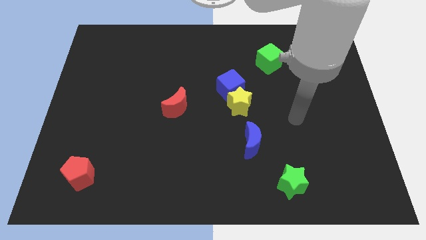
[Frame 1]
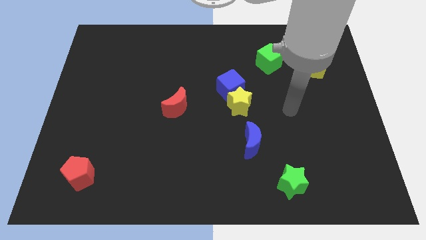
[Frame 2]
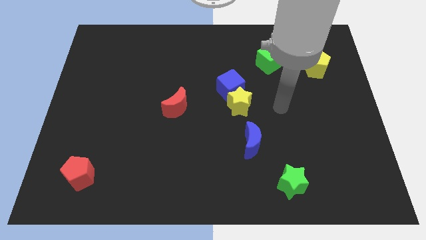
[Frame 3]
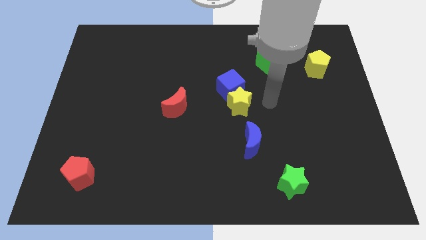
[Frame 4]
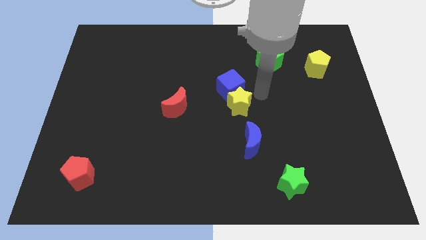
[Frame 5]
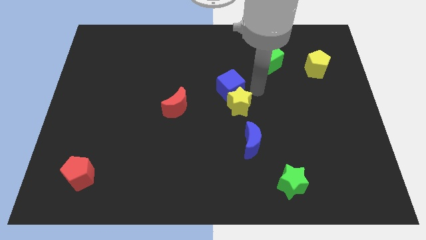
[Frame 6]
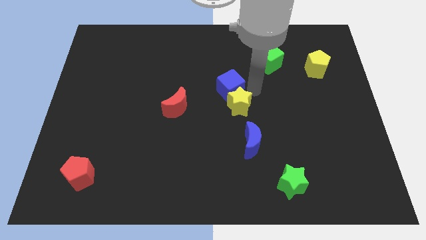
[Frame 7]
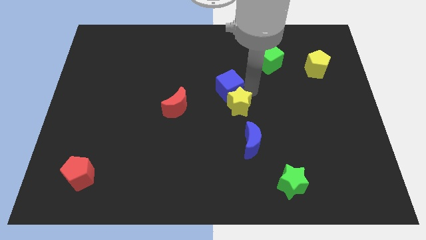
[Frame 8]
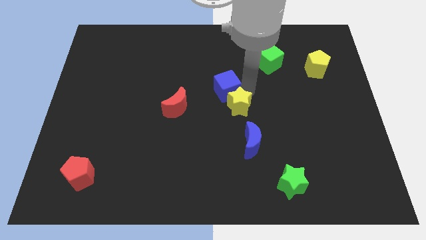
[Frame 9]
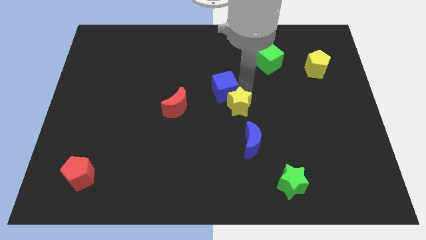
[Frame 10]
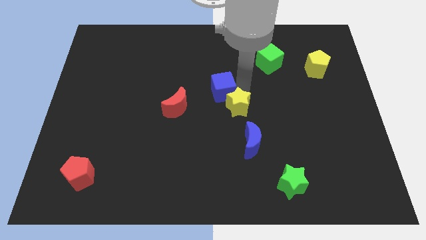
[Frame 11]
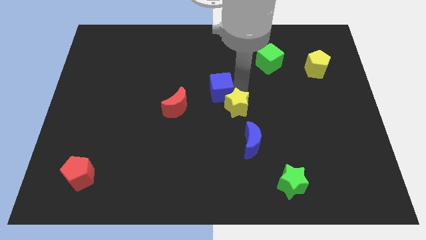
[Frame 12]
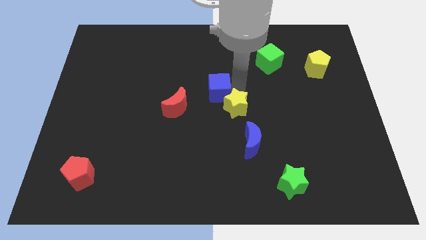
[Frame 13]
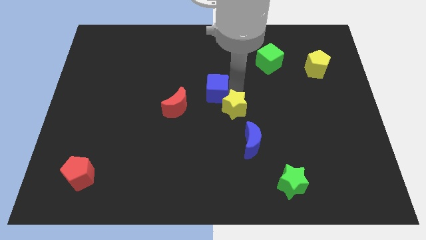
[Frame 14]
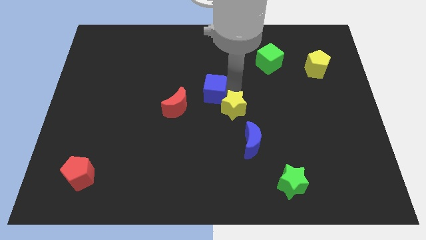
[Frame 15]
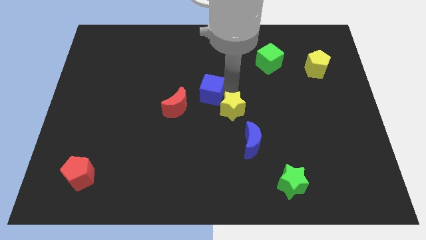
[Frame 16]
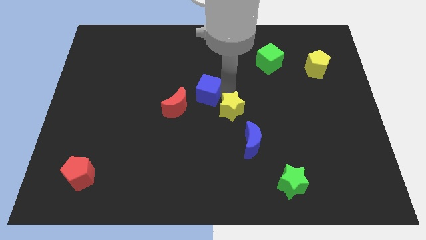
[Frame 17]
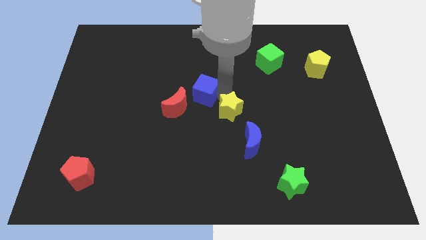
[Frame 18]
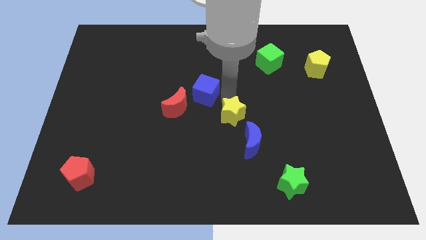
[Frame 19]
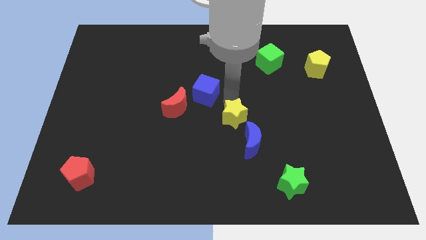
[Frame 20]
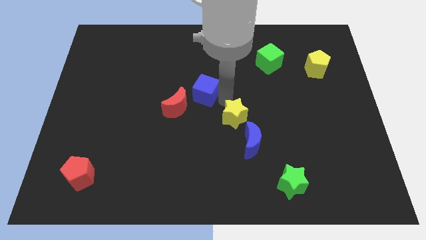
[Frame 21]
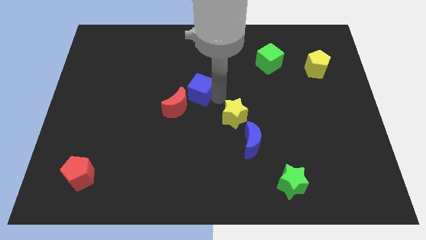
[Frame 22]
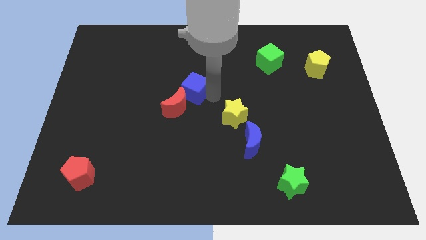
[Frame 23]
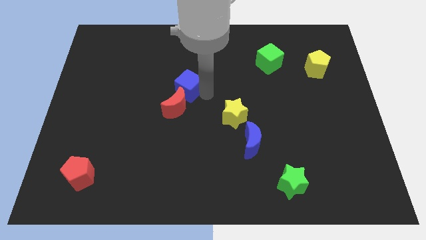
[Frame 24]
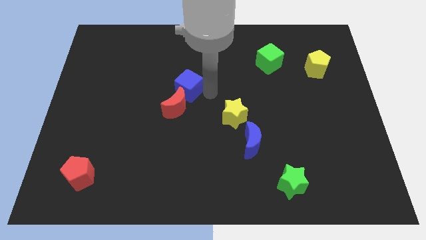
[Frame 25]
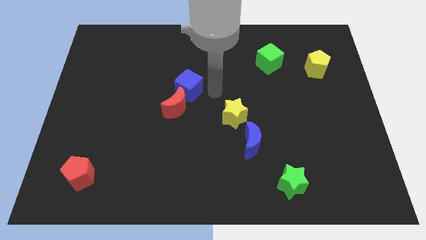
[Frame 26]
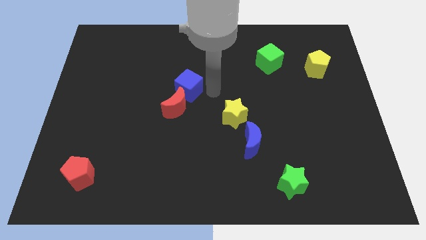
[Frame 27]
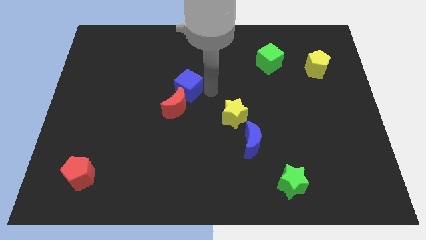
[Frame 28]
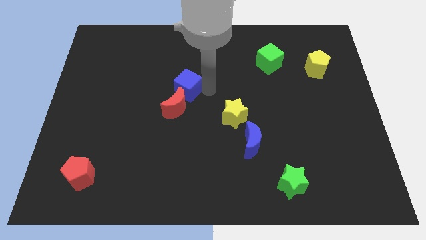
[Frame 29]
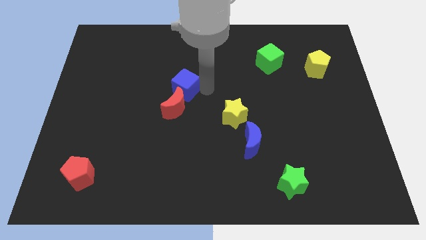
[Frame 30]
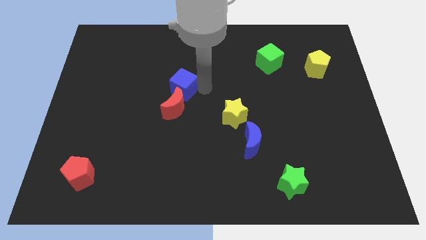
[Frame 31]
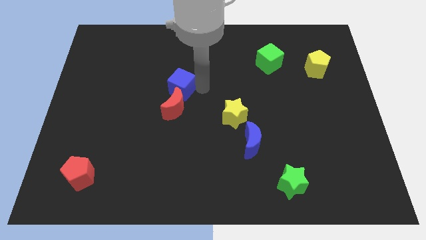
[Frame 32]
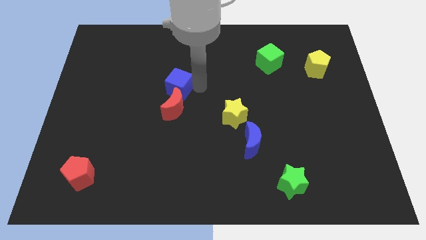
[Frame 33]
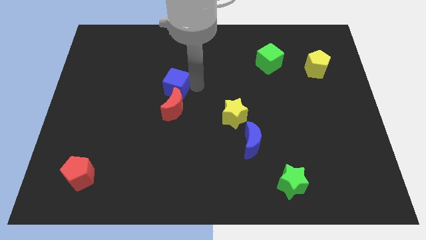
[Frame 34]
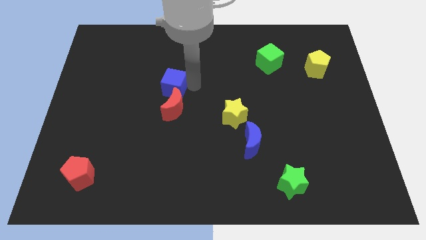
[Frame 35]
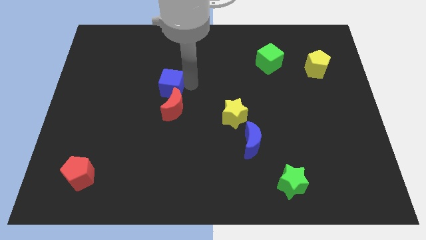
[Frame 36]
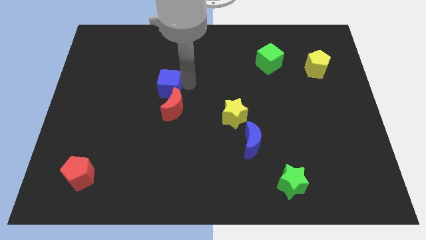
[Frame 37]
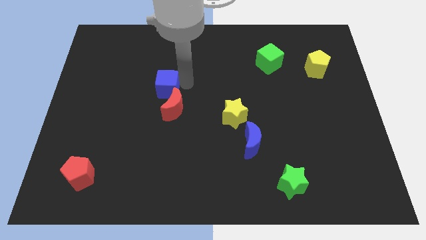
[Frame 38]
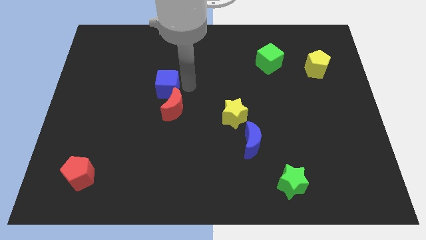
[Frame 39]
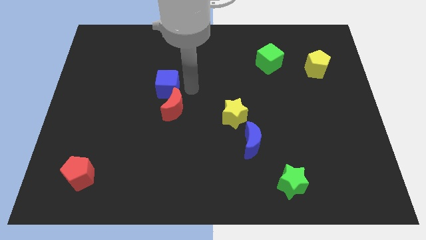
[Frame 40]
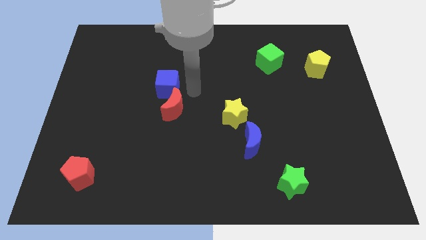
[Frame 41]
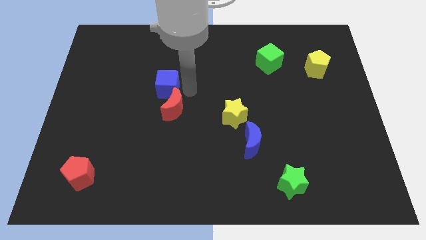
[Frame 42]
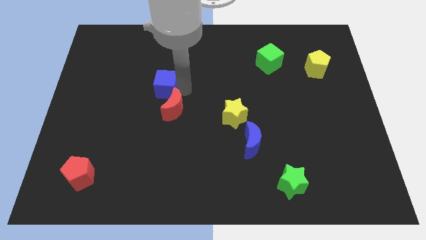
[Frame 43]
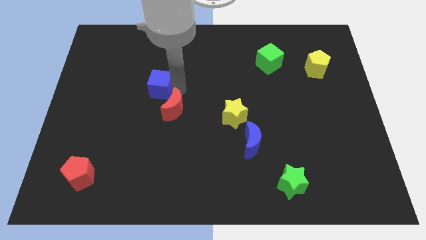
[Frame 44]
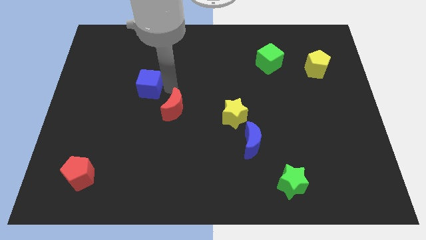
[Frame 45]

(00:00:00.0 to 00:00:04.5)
slide the blue cube left

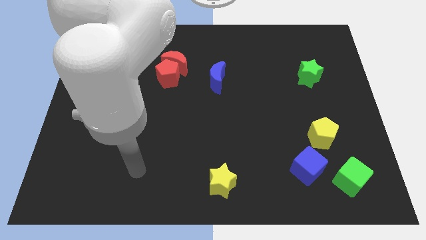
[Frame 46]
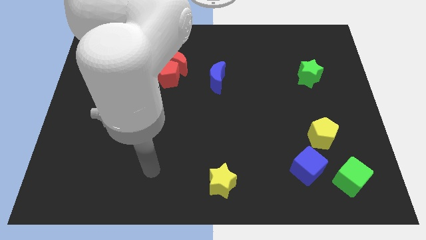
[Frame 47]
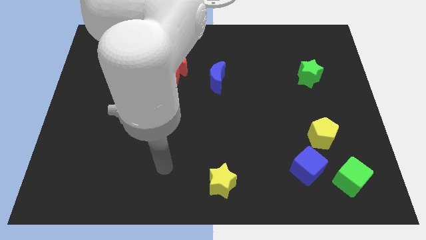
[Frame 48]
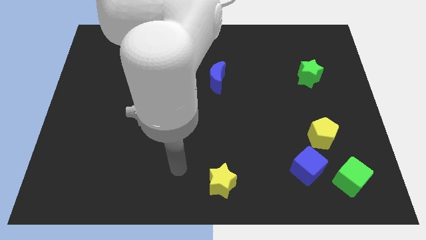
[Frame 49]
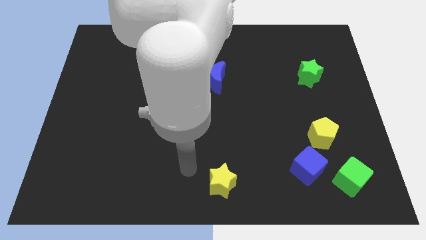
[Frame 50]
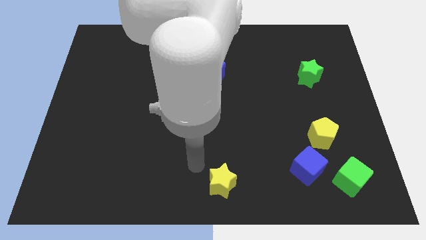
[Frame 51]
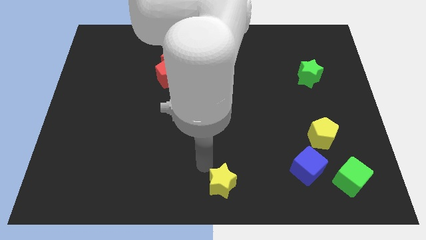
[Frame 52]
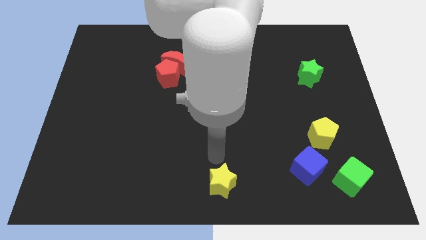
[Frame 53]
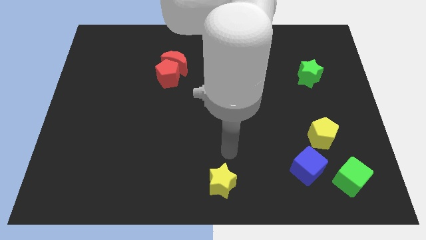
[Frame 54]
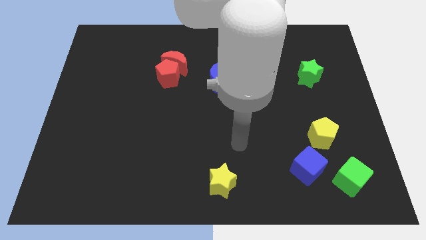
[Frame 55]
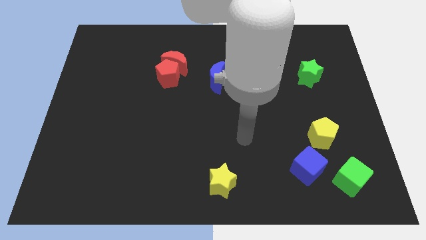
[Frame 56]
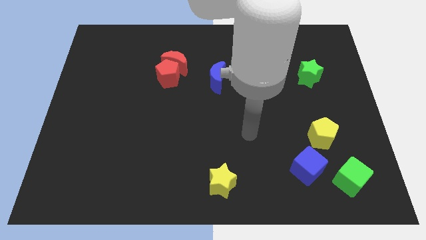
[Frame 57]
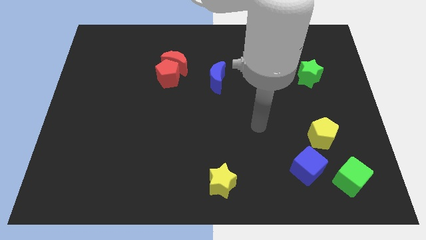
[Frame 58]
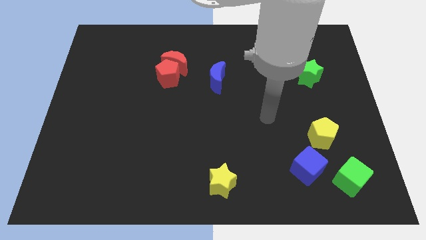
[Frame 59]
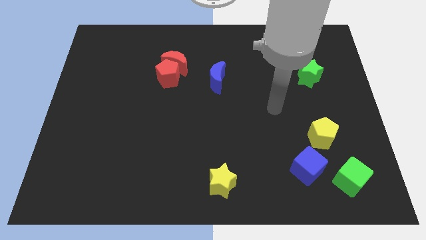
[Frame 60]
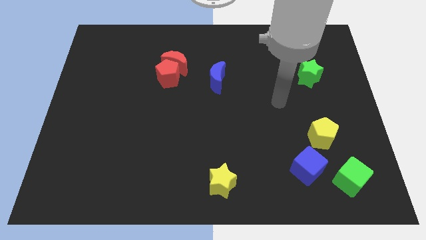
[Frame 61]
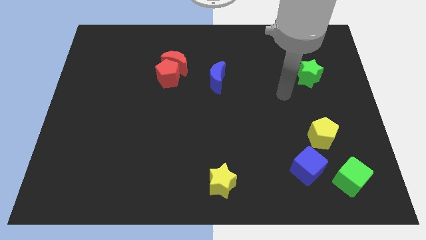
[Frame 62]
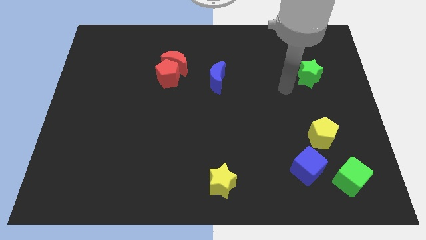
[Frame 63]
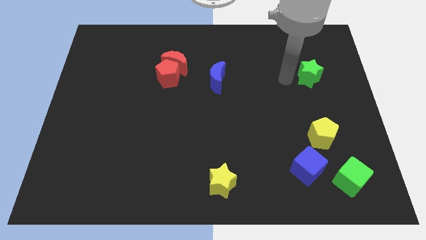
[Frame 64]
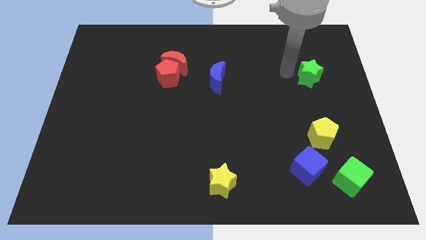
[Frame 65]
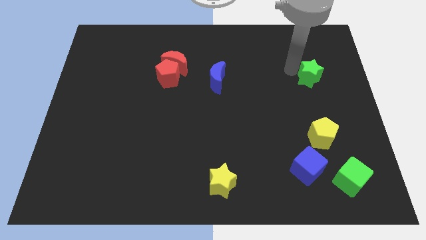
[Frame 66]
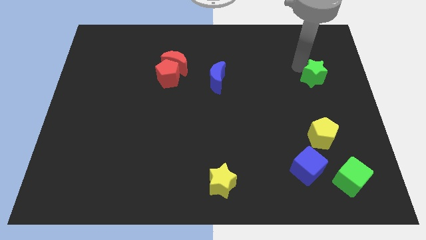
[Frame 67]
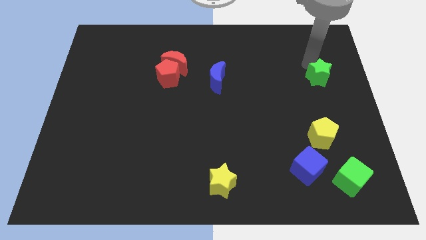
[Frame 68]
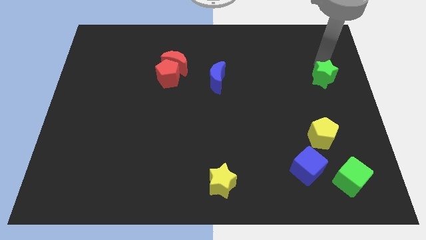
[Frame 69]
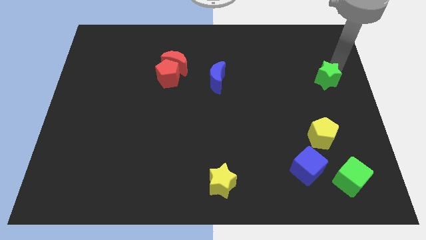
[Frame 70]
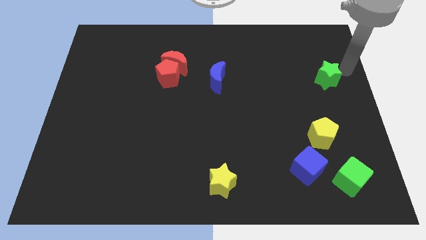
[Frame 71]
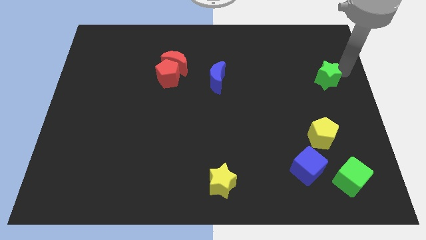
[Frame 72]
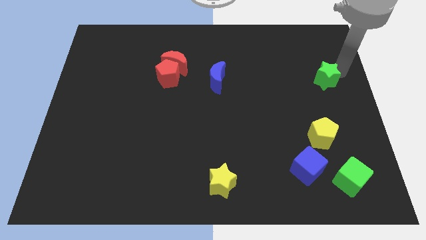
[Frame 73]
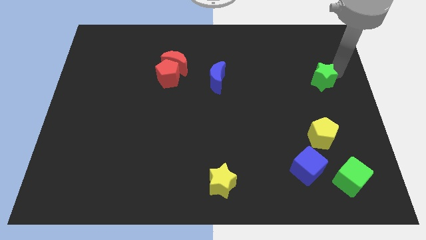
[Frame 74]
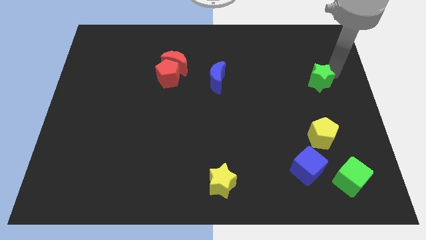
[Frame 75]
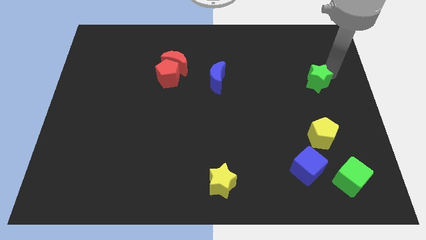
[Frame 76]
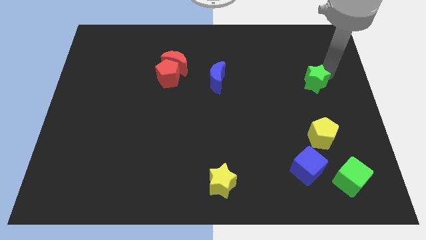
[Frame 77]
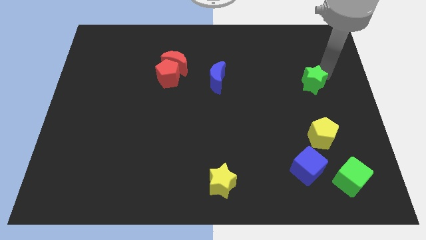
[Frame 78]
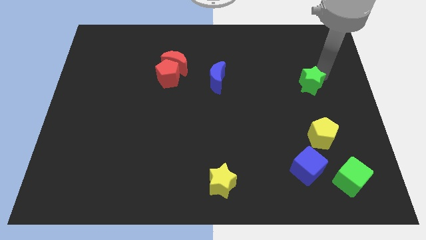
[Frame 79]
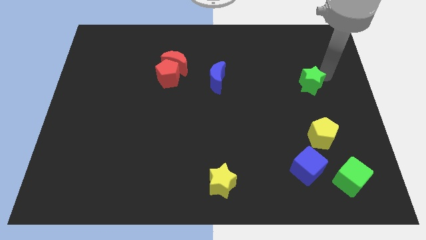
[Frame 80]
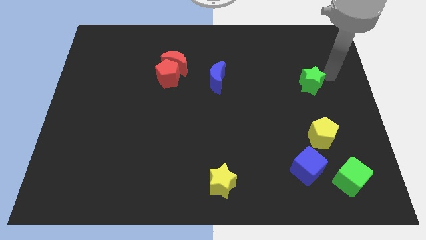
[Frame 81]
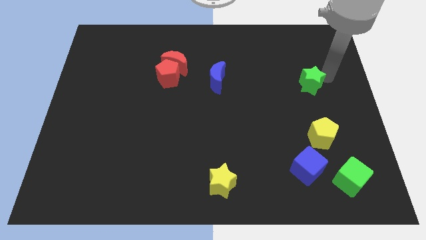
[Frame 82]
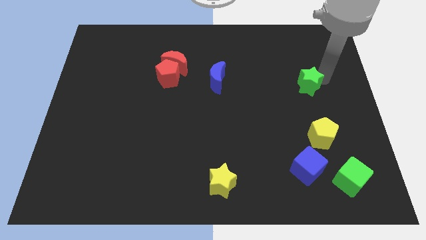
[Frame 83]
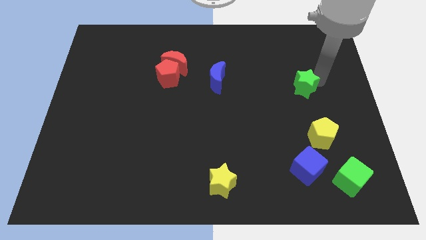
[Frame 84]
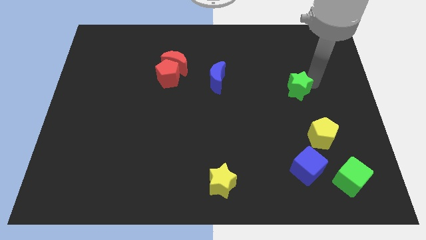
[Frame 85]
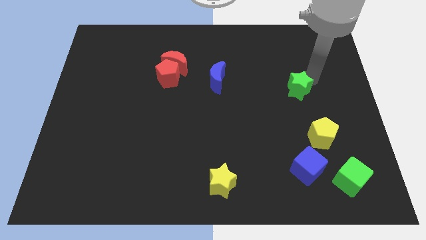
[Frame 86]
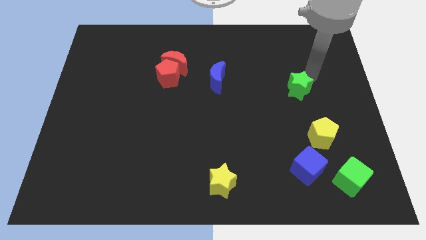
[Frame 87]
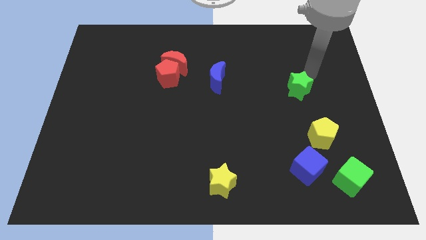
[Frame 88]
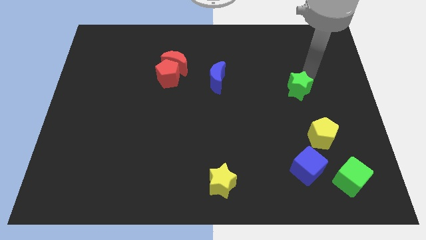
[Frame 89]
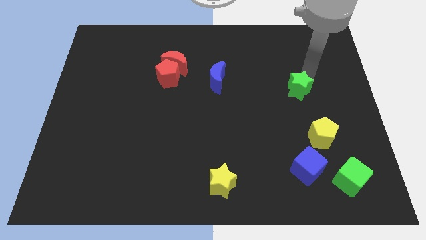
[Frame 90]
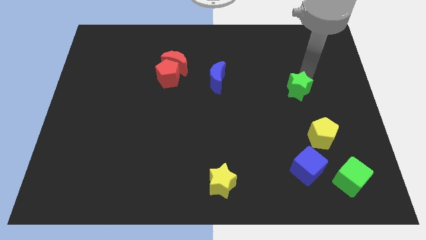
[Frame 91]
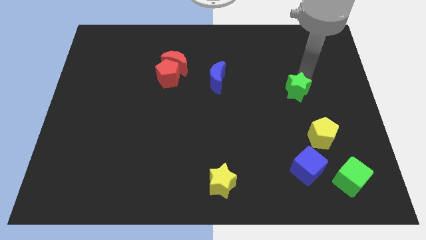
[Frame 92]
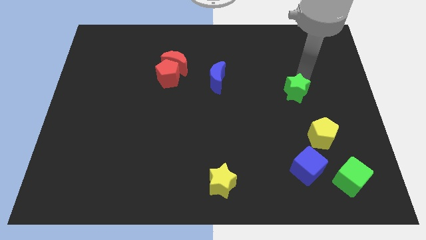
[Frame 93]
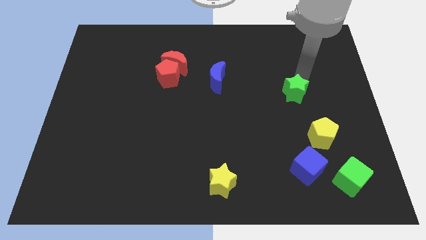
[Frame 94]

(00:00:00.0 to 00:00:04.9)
move the green star downwards and then to the left a little bit
